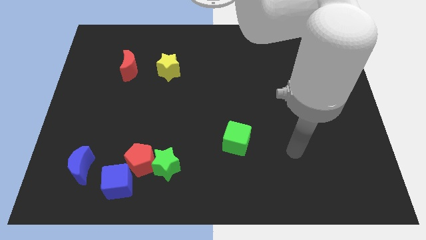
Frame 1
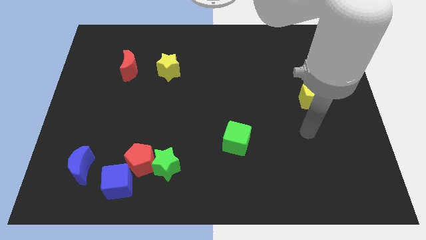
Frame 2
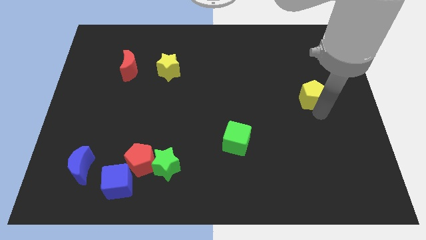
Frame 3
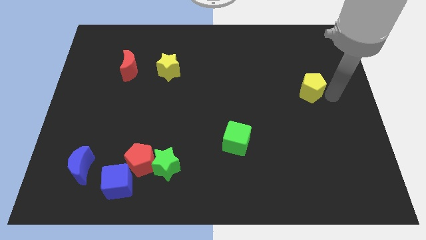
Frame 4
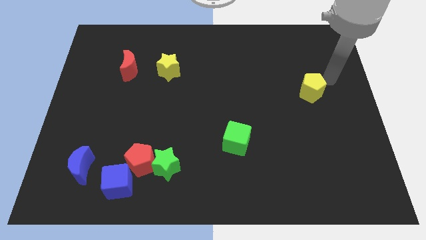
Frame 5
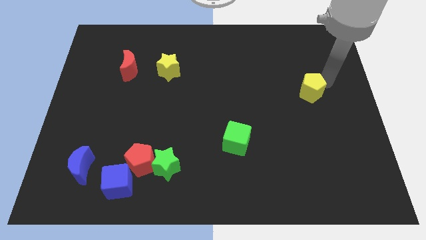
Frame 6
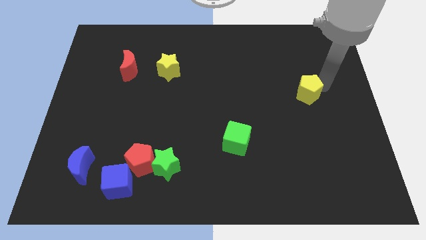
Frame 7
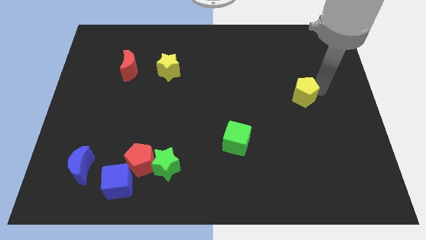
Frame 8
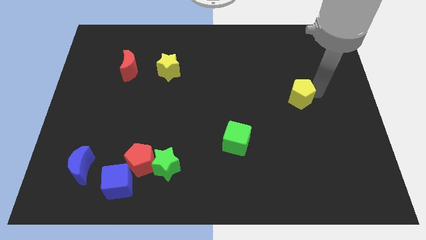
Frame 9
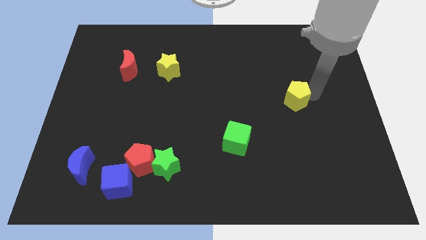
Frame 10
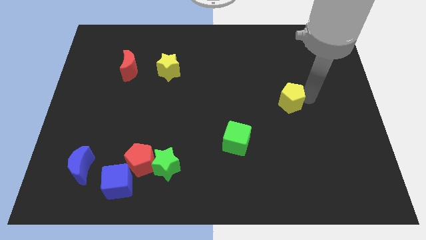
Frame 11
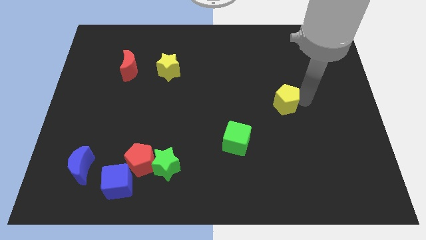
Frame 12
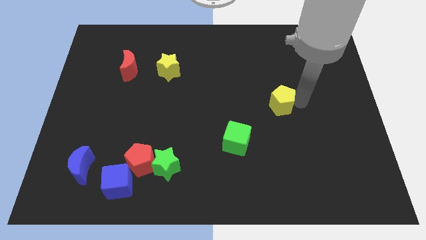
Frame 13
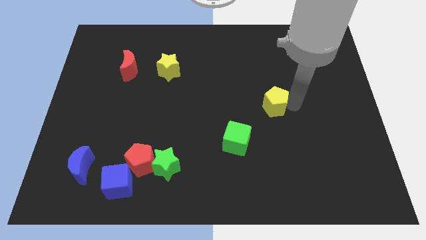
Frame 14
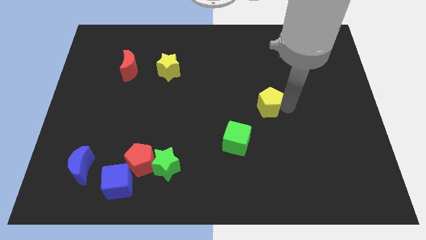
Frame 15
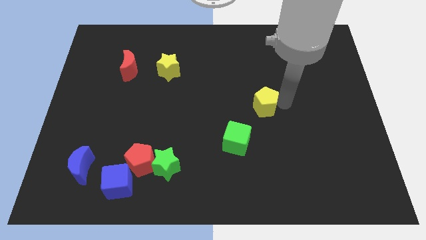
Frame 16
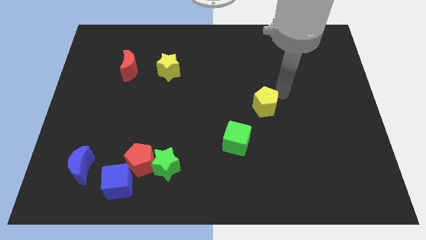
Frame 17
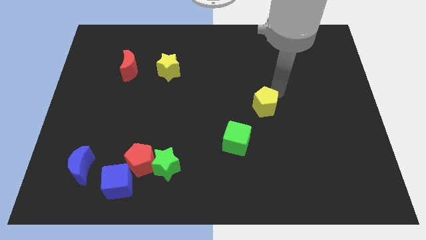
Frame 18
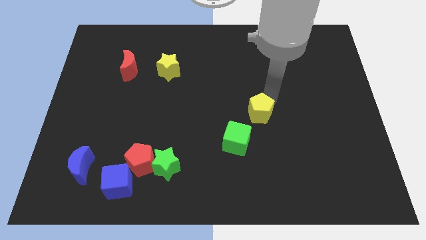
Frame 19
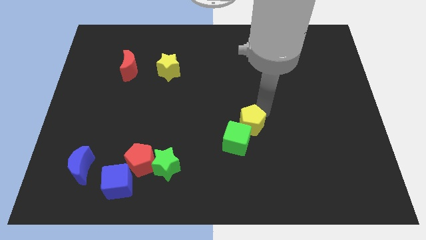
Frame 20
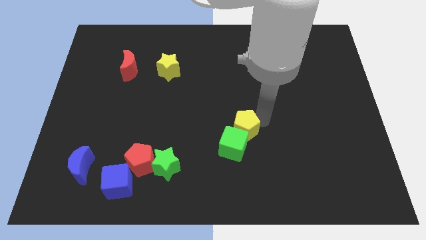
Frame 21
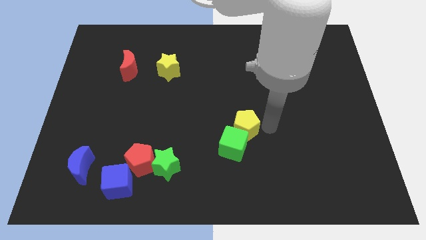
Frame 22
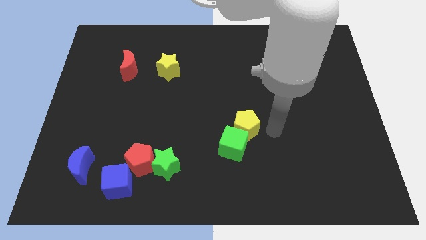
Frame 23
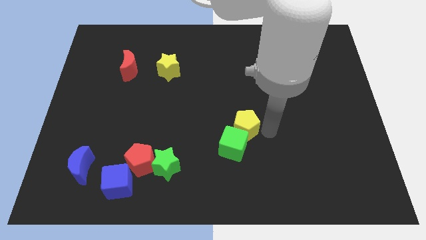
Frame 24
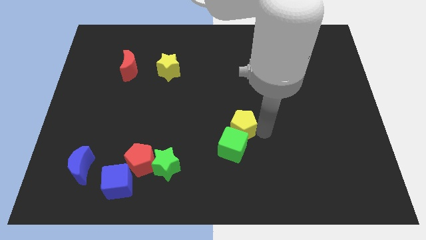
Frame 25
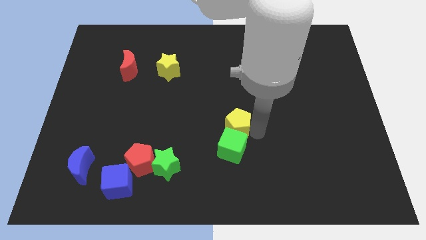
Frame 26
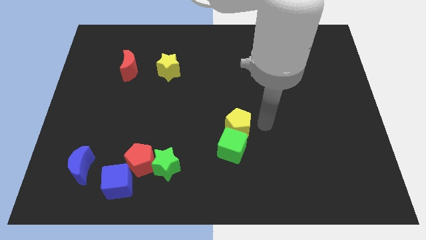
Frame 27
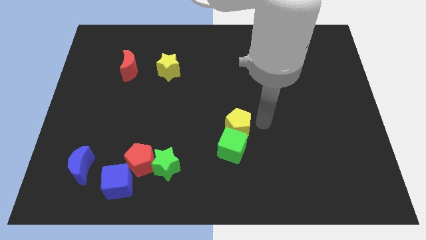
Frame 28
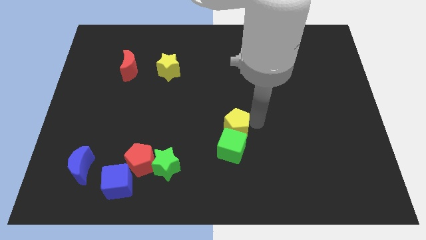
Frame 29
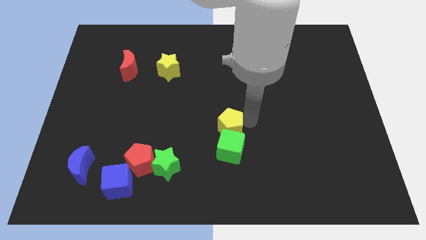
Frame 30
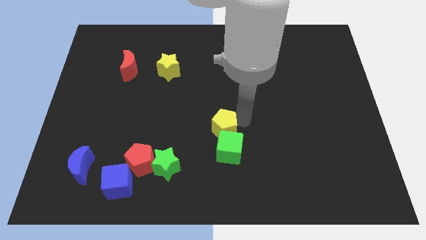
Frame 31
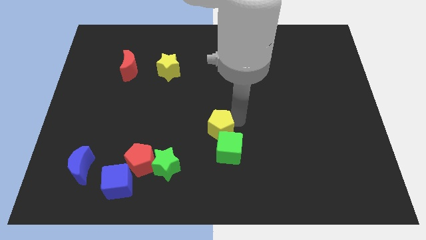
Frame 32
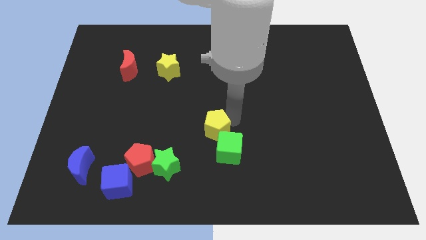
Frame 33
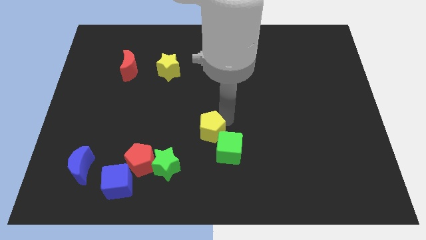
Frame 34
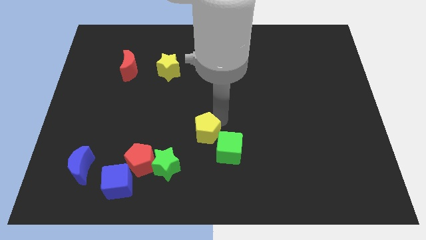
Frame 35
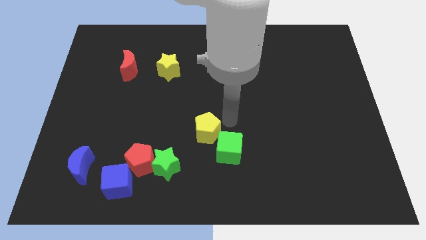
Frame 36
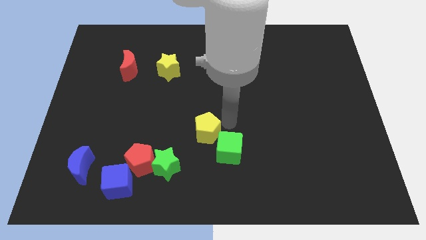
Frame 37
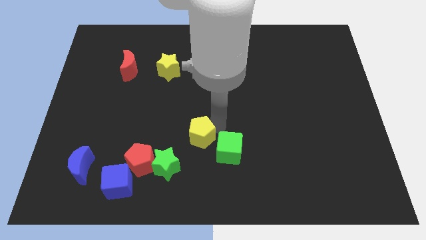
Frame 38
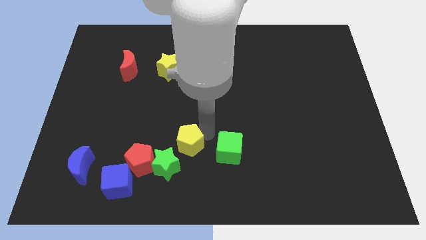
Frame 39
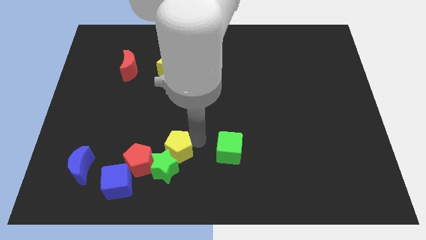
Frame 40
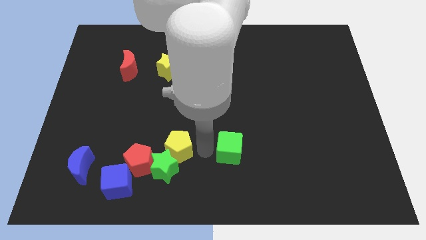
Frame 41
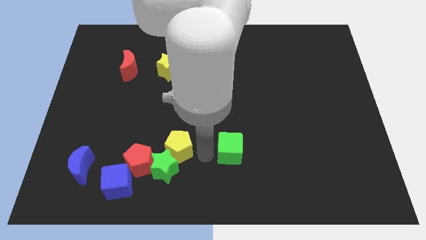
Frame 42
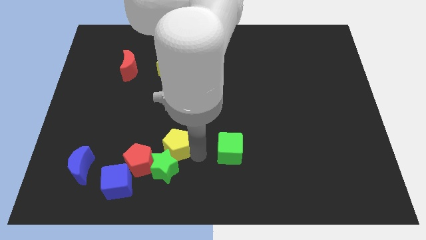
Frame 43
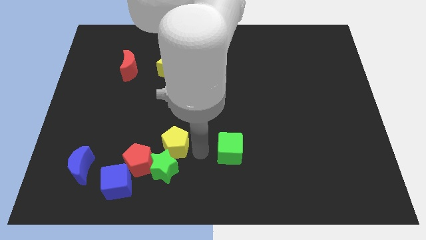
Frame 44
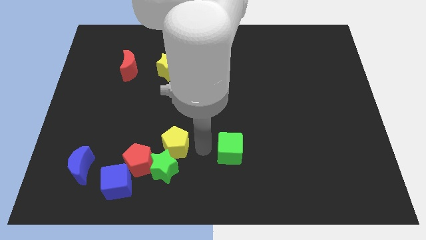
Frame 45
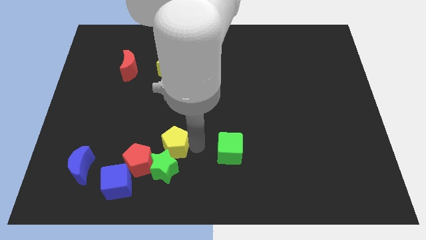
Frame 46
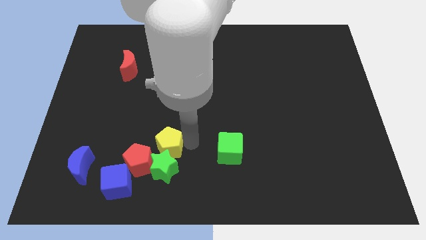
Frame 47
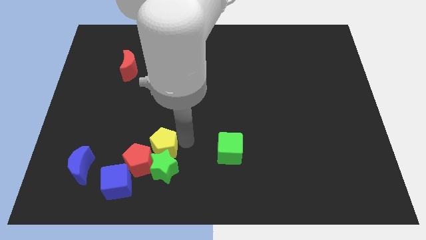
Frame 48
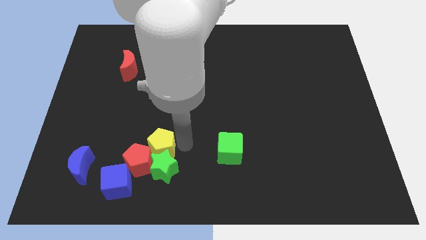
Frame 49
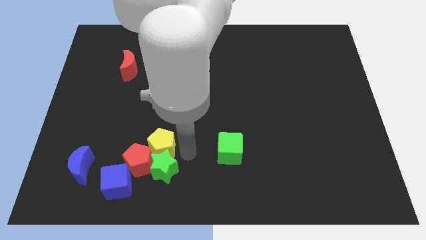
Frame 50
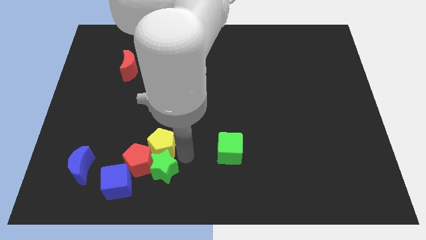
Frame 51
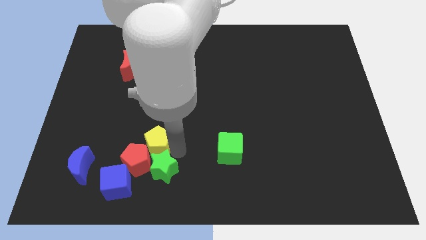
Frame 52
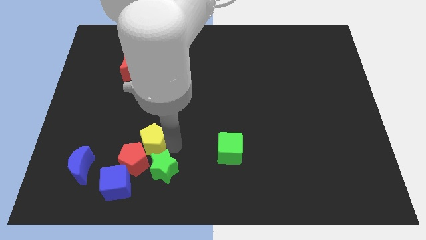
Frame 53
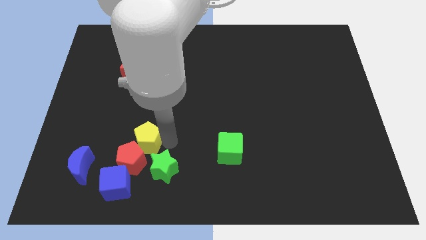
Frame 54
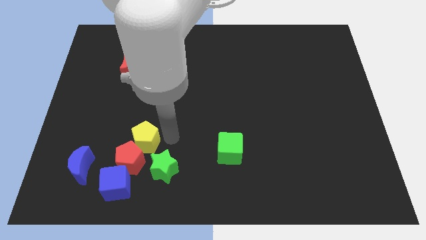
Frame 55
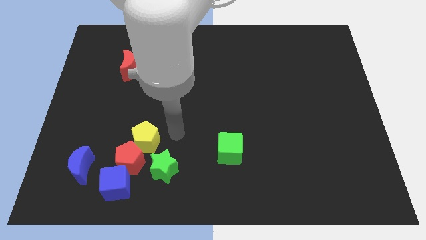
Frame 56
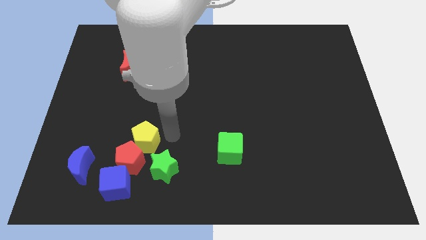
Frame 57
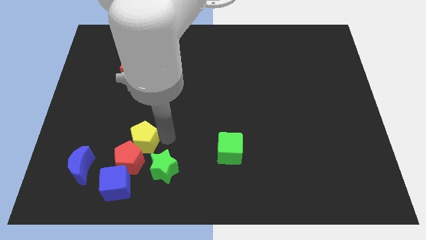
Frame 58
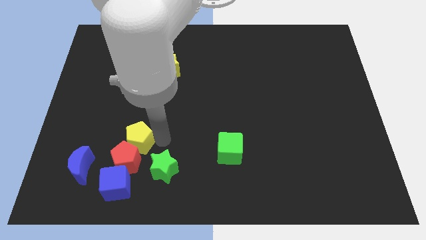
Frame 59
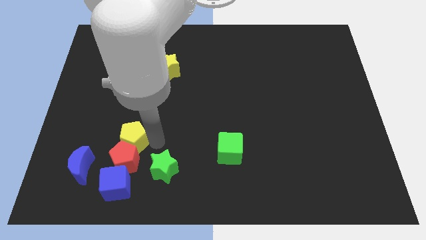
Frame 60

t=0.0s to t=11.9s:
move the yellow pentagon to the top right side of the blue moon

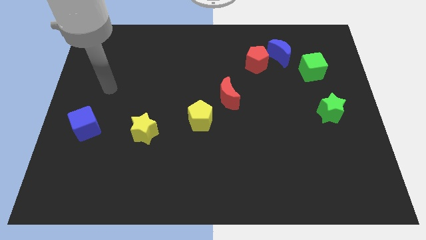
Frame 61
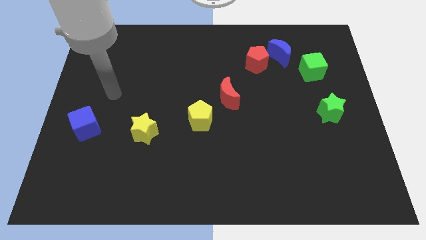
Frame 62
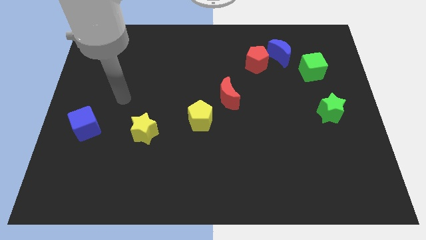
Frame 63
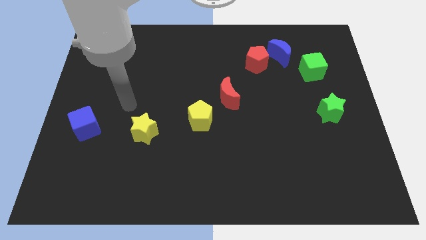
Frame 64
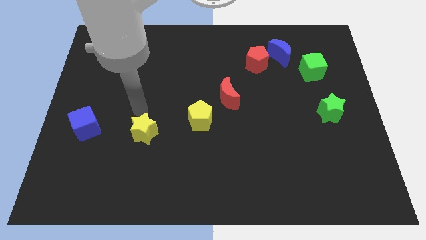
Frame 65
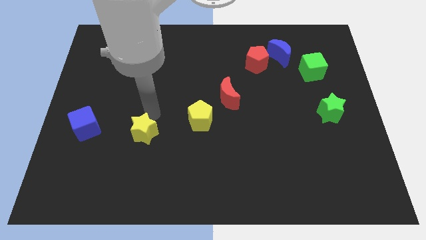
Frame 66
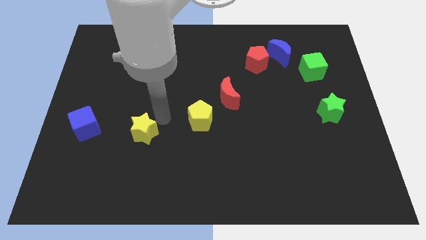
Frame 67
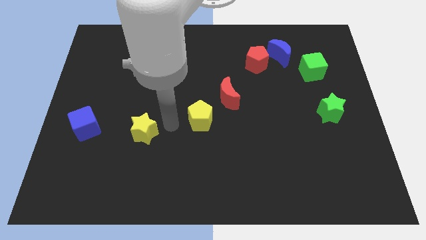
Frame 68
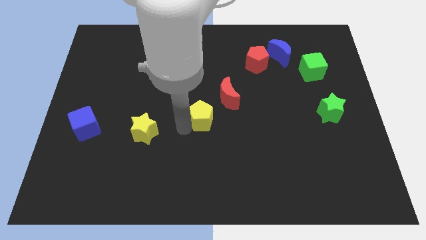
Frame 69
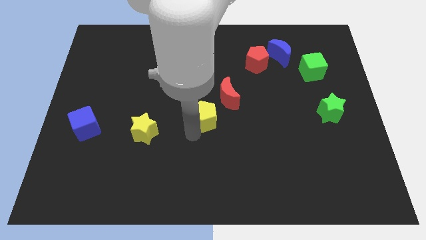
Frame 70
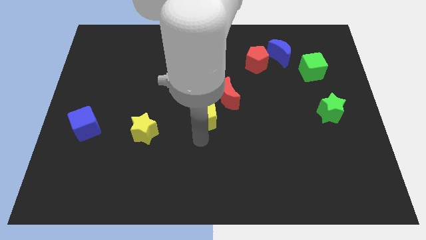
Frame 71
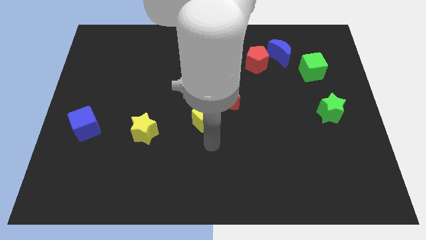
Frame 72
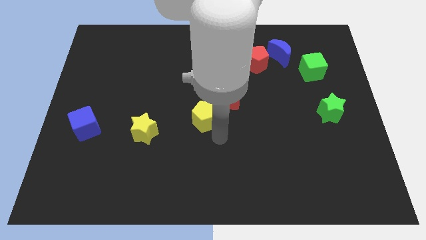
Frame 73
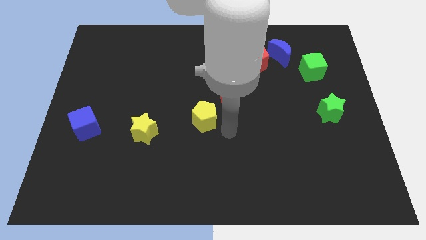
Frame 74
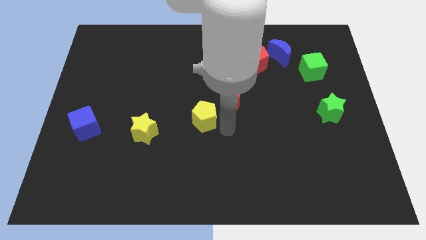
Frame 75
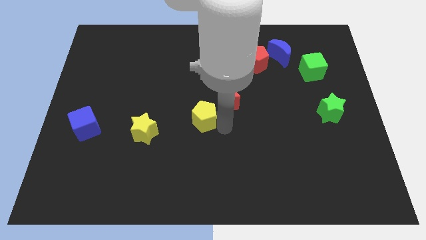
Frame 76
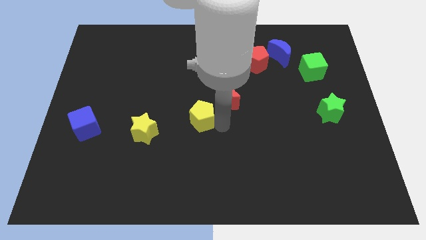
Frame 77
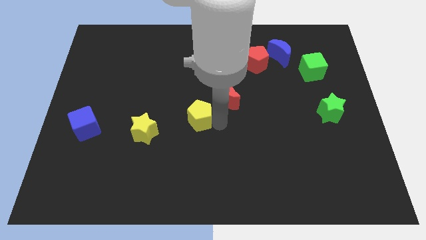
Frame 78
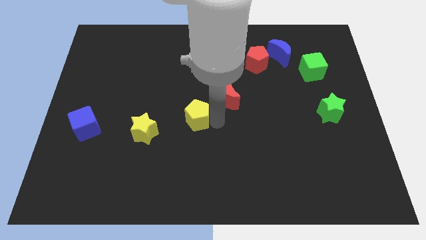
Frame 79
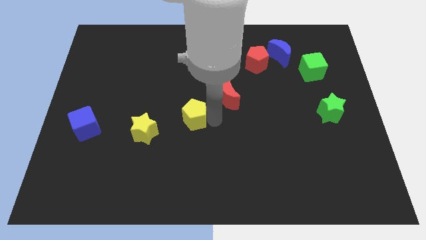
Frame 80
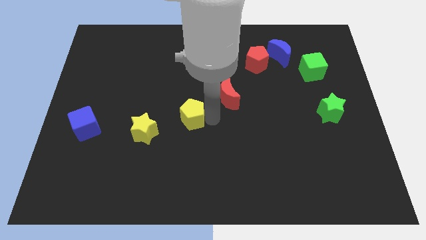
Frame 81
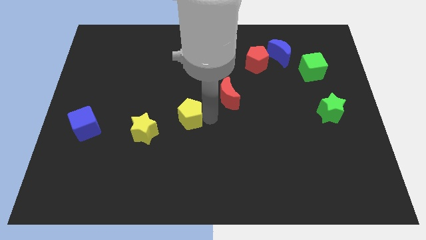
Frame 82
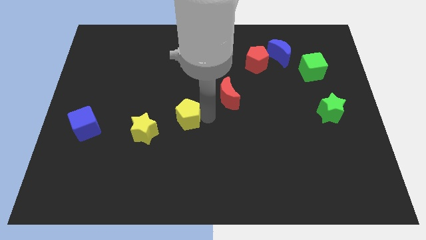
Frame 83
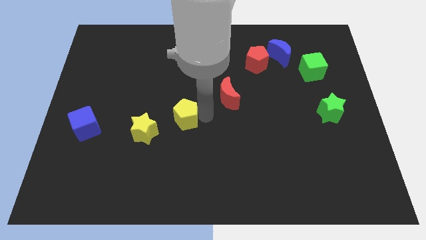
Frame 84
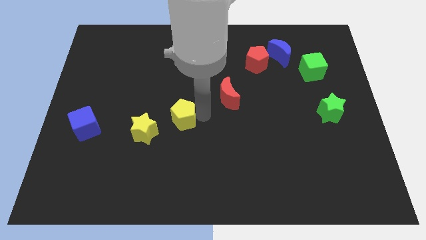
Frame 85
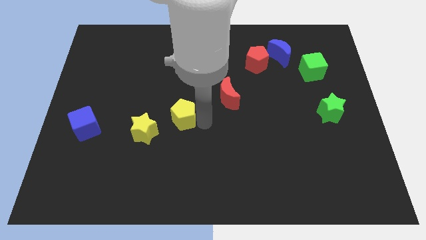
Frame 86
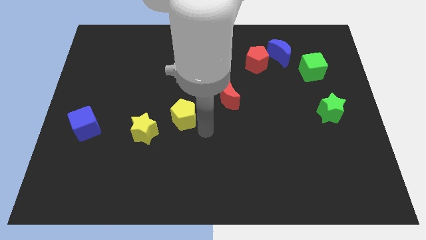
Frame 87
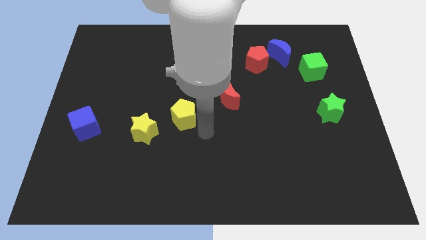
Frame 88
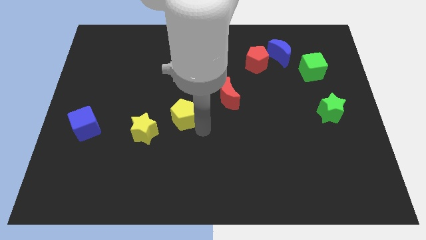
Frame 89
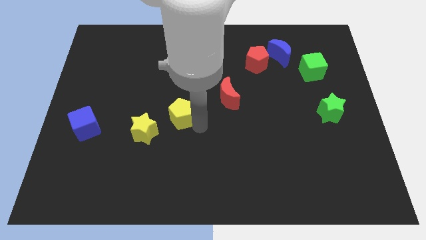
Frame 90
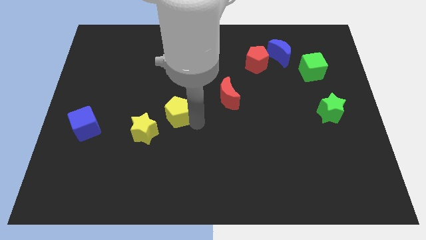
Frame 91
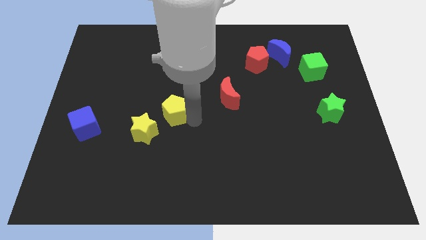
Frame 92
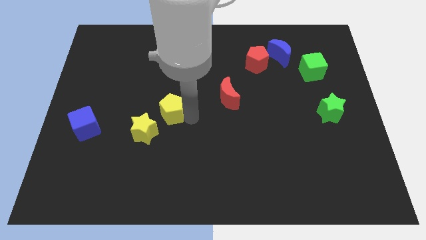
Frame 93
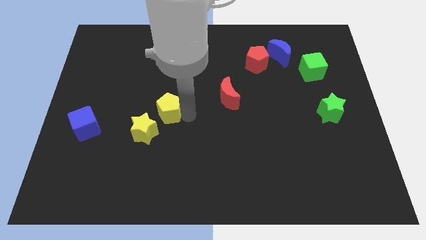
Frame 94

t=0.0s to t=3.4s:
move the yellow pentagon to the top side of the yellow star
